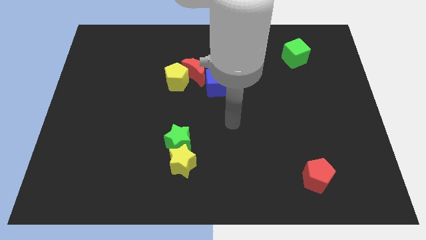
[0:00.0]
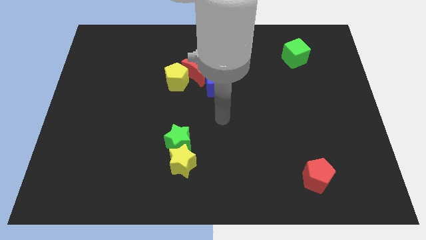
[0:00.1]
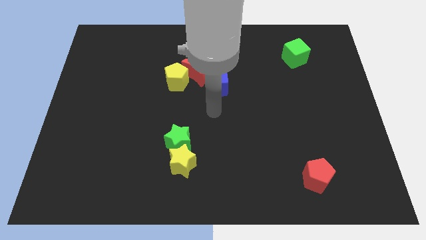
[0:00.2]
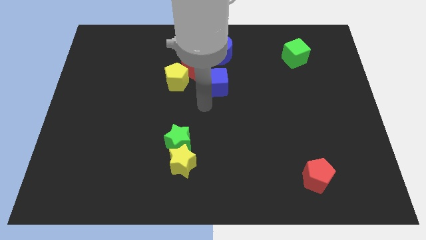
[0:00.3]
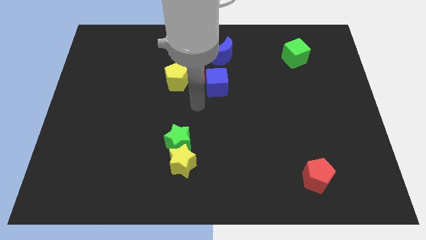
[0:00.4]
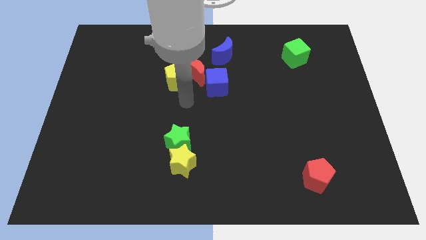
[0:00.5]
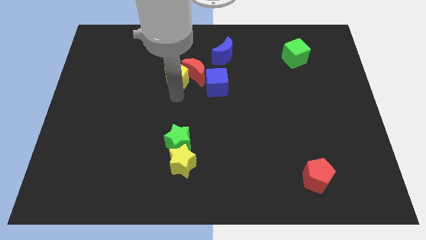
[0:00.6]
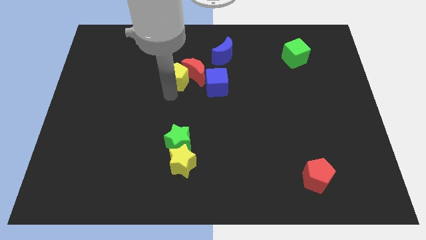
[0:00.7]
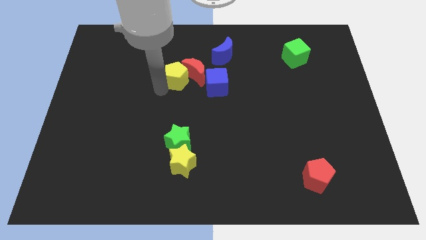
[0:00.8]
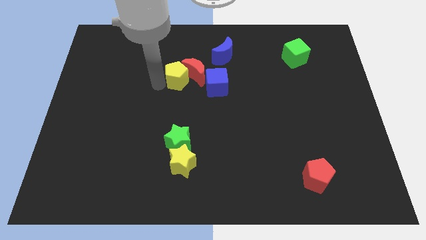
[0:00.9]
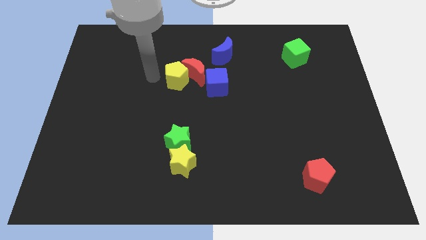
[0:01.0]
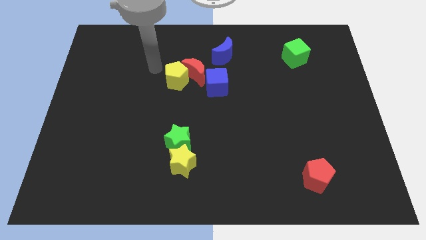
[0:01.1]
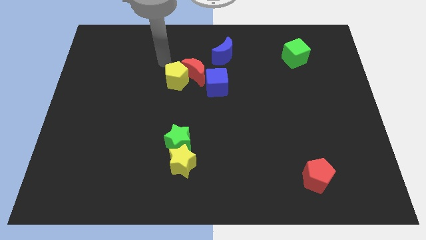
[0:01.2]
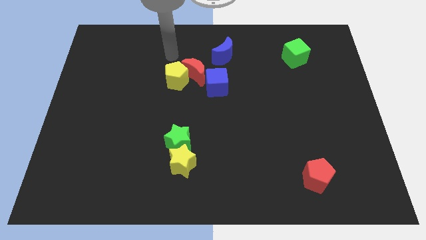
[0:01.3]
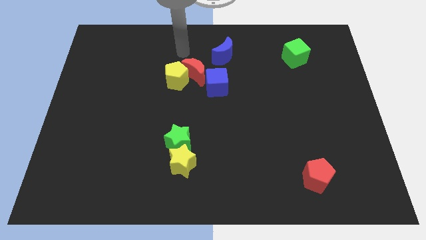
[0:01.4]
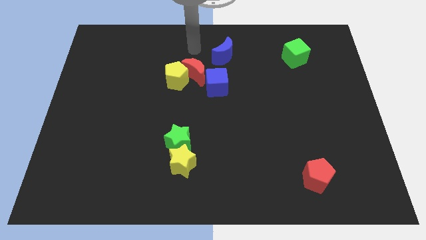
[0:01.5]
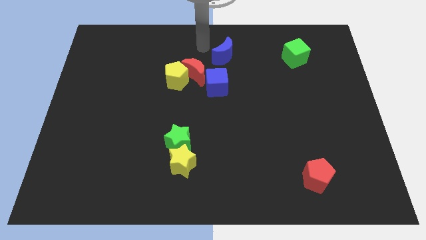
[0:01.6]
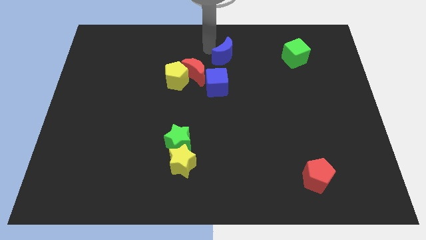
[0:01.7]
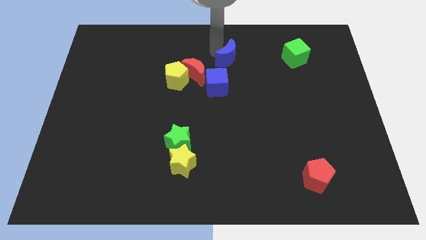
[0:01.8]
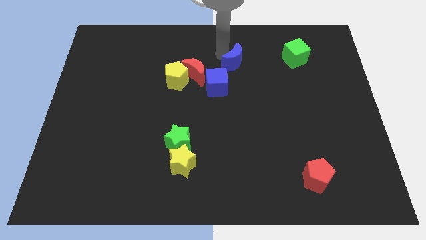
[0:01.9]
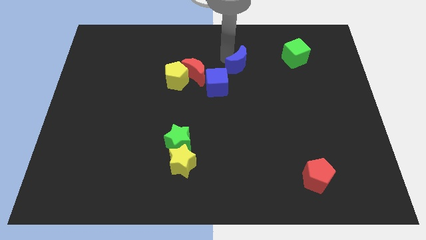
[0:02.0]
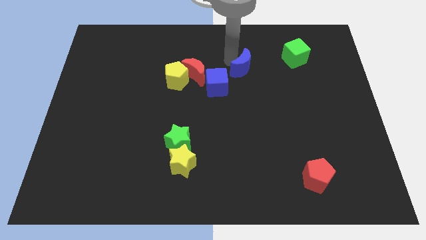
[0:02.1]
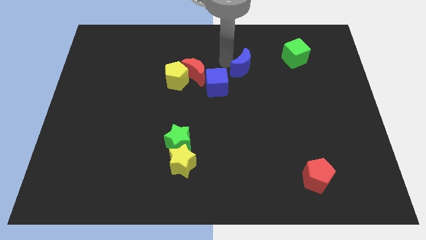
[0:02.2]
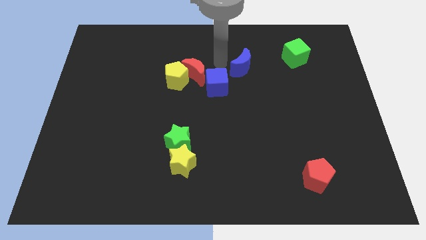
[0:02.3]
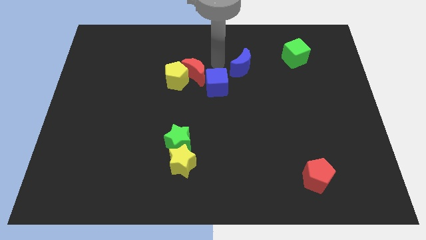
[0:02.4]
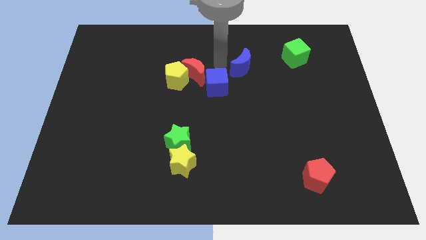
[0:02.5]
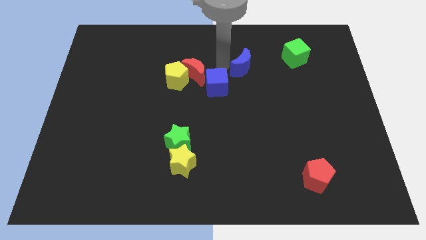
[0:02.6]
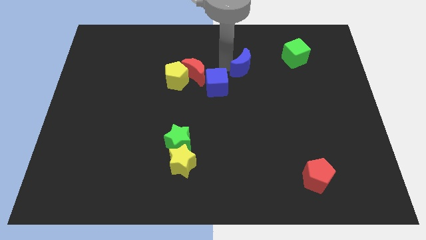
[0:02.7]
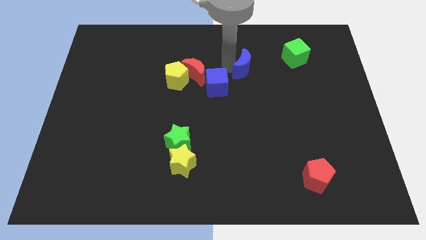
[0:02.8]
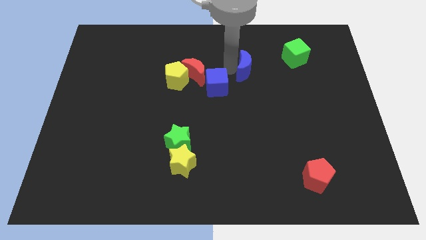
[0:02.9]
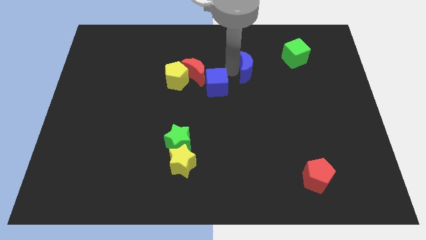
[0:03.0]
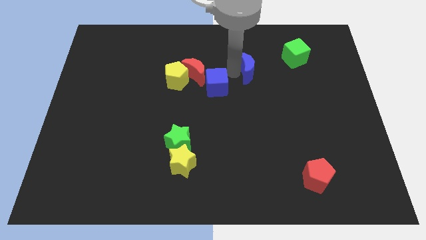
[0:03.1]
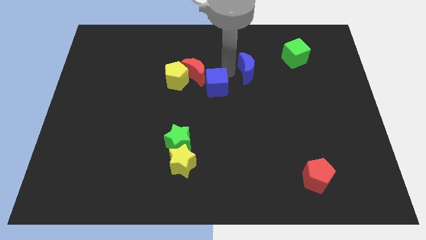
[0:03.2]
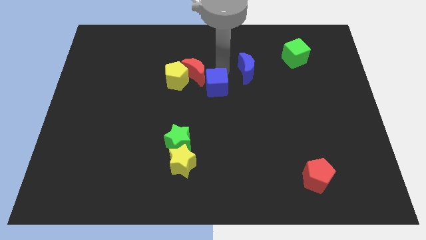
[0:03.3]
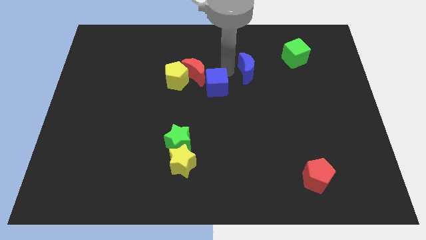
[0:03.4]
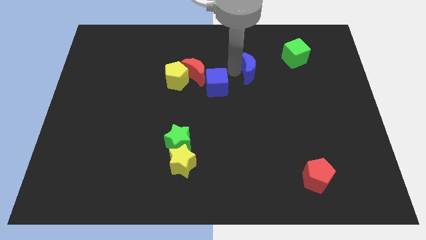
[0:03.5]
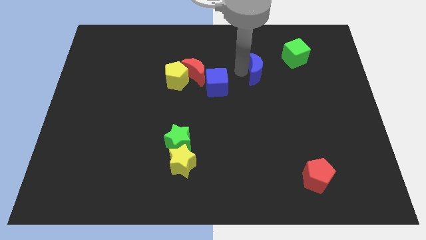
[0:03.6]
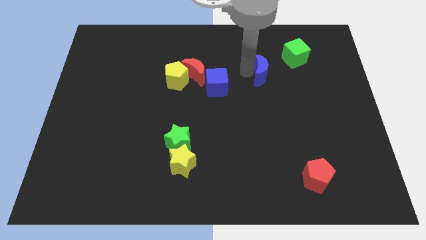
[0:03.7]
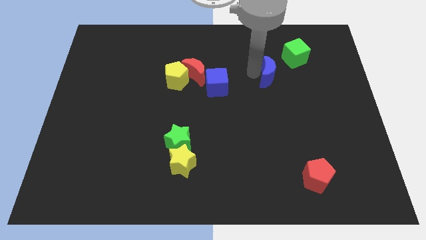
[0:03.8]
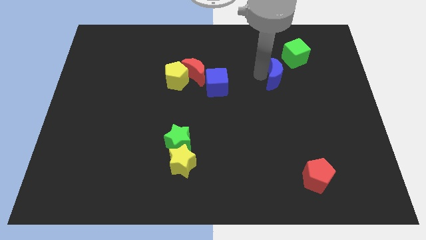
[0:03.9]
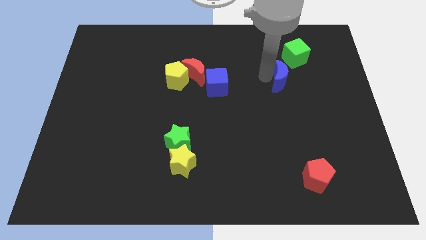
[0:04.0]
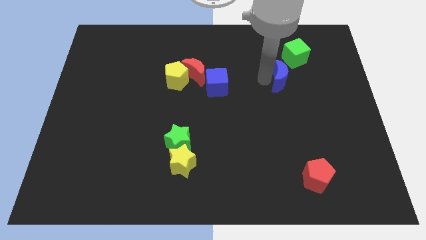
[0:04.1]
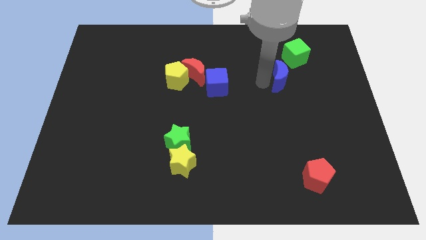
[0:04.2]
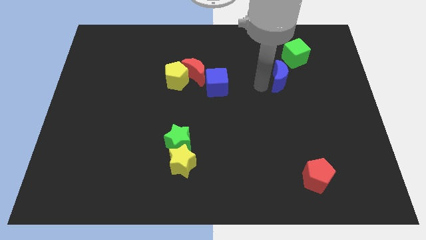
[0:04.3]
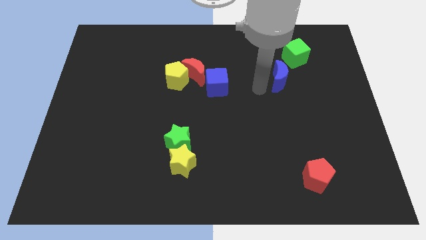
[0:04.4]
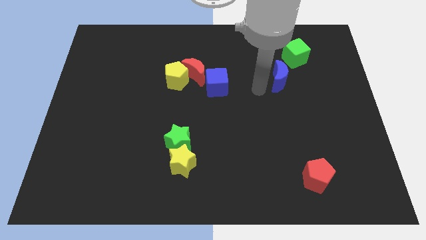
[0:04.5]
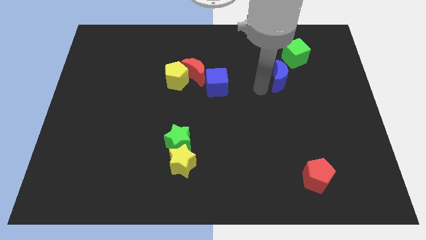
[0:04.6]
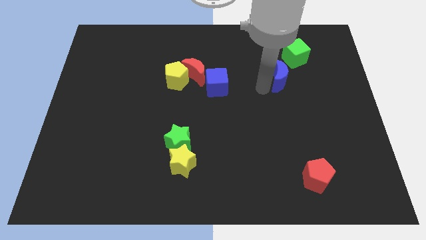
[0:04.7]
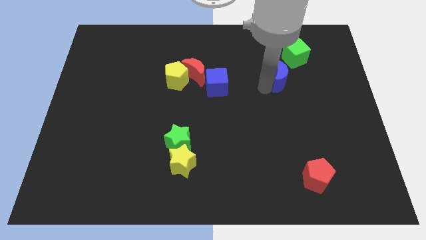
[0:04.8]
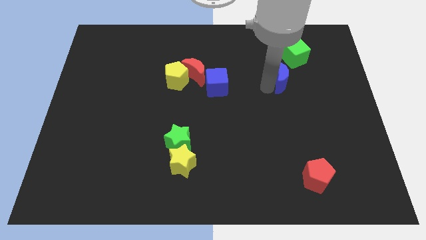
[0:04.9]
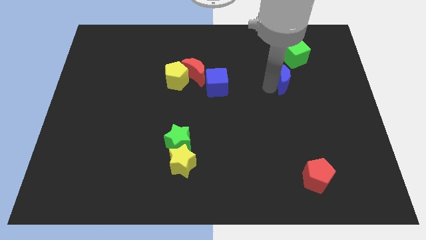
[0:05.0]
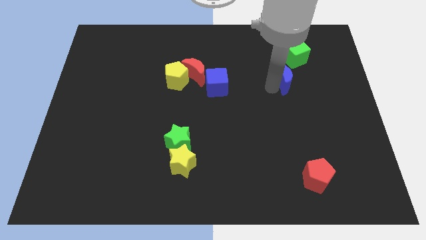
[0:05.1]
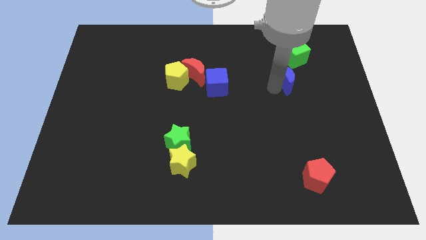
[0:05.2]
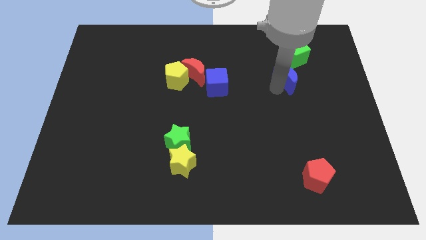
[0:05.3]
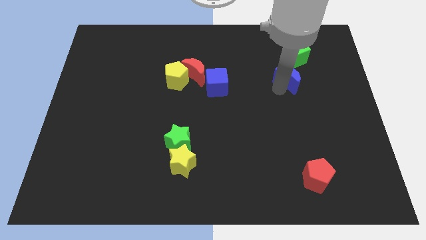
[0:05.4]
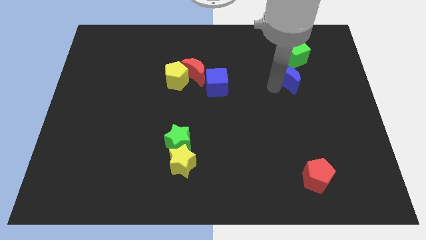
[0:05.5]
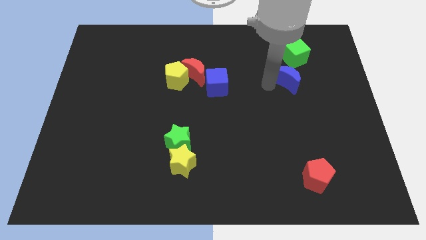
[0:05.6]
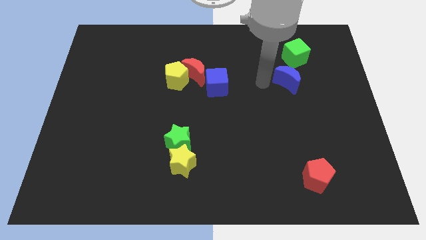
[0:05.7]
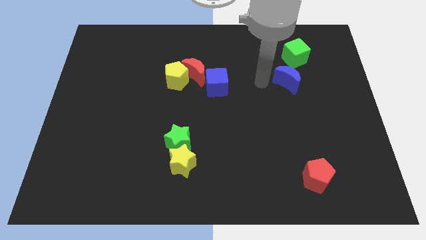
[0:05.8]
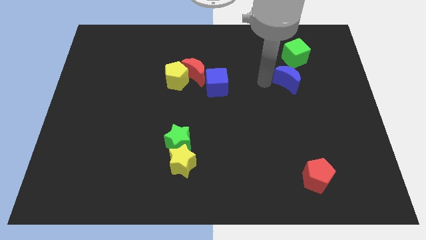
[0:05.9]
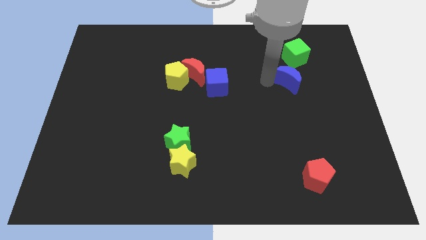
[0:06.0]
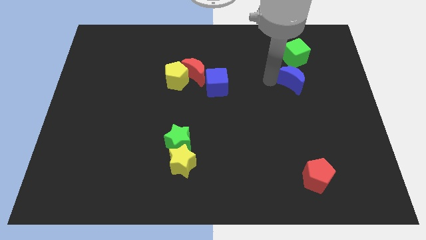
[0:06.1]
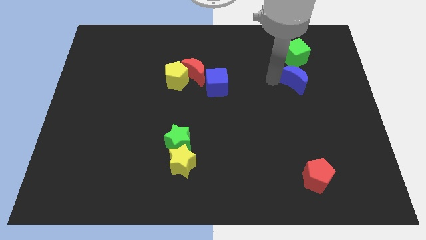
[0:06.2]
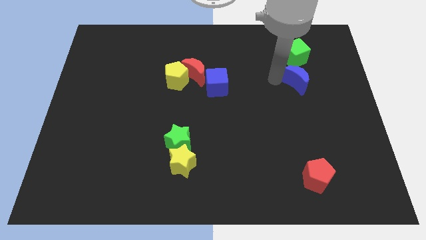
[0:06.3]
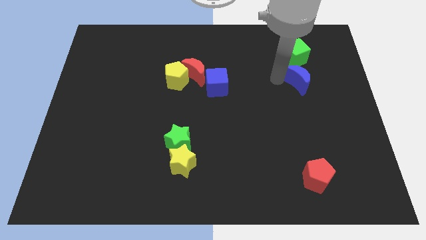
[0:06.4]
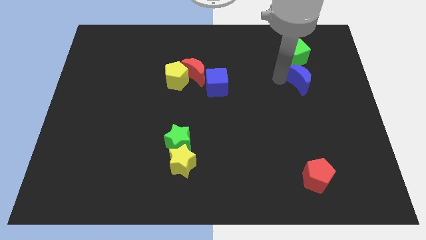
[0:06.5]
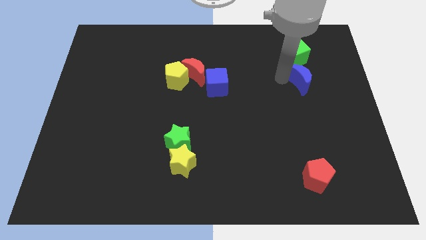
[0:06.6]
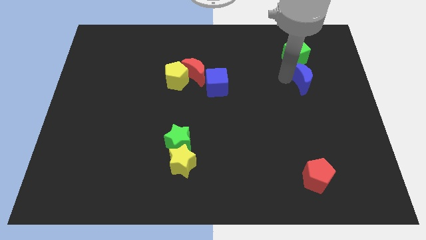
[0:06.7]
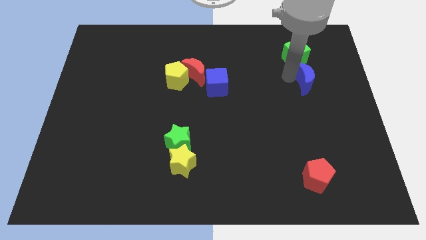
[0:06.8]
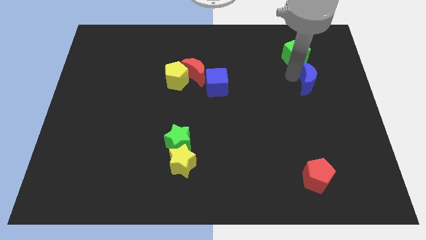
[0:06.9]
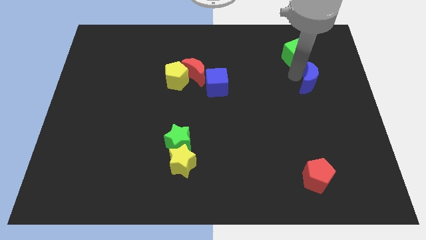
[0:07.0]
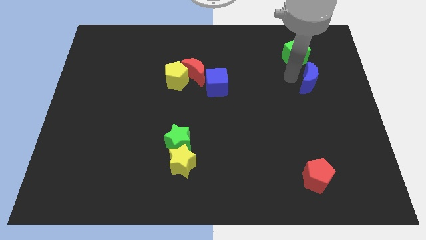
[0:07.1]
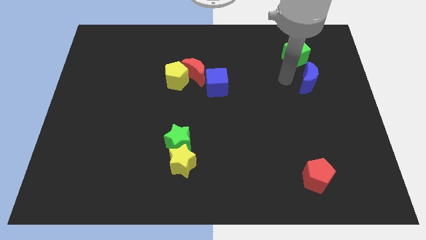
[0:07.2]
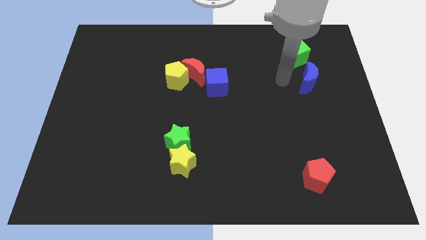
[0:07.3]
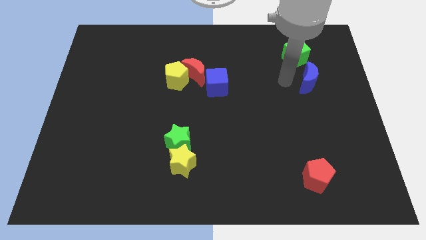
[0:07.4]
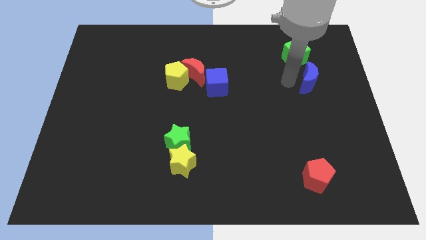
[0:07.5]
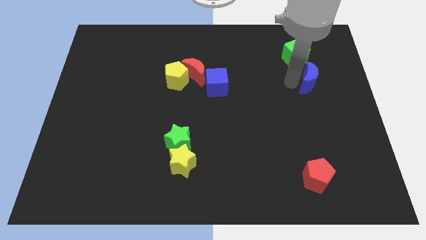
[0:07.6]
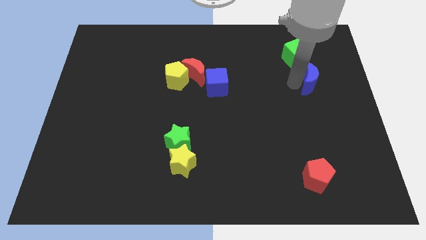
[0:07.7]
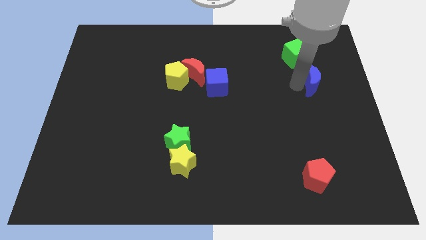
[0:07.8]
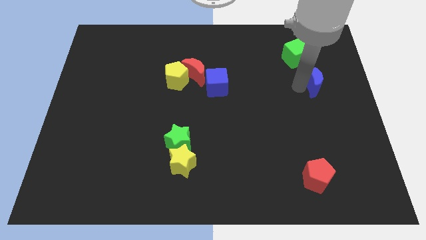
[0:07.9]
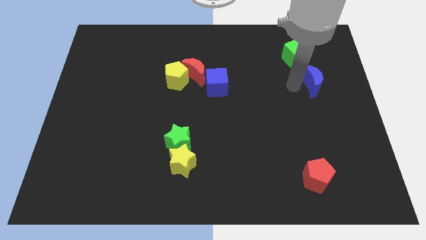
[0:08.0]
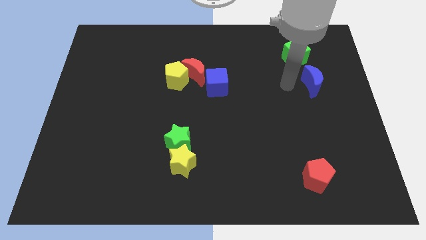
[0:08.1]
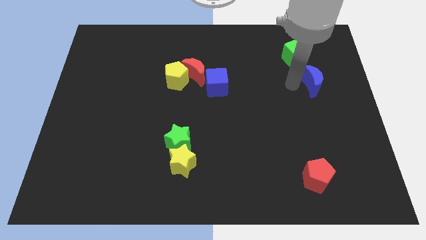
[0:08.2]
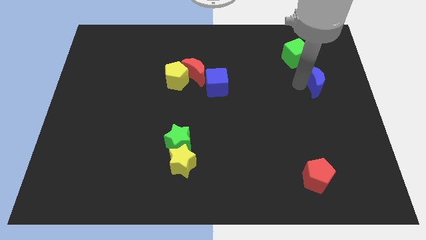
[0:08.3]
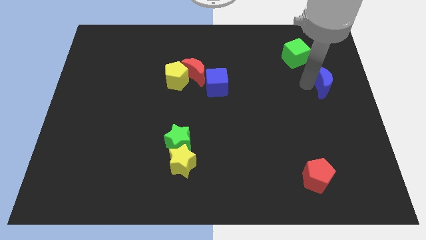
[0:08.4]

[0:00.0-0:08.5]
slide the blue moon to the right side of the board
